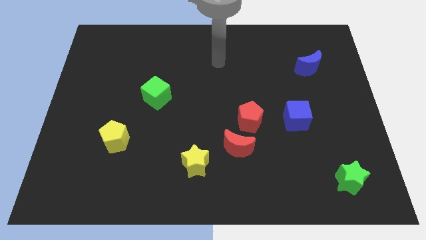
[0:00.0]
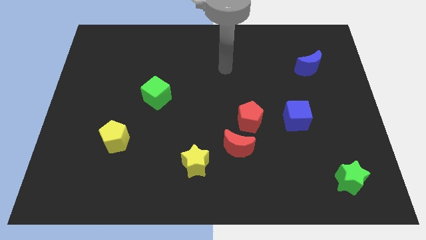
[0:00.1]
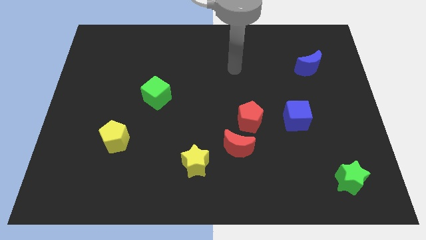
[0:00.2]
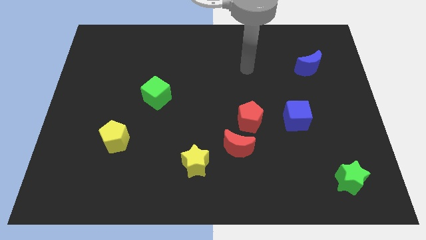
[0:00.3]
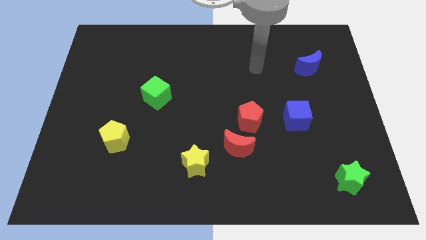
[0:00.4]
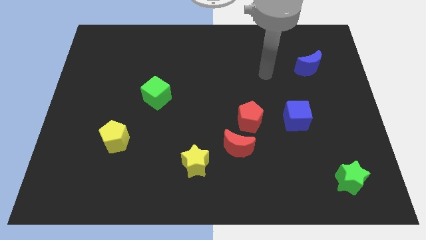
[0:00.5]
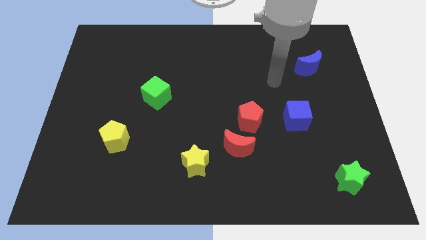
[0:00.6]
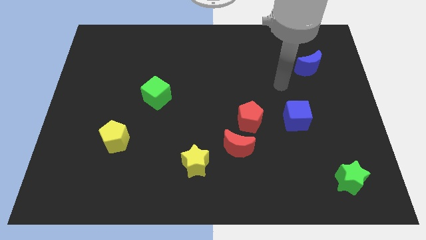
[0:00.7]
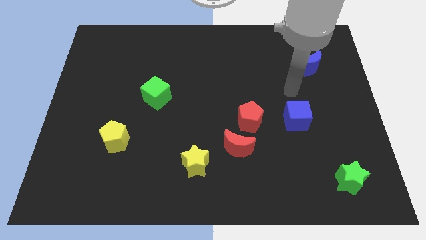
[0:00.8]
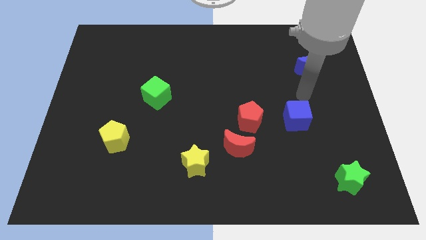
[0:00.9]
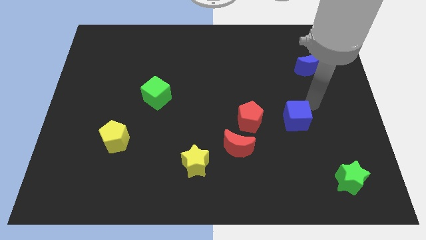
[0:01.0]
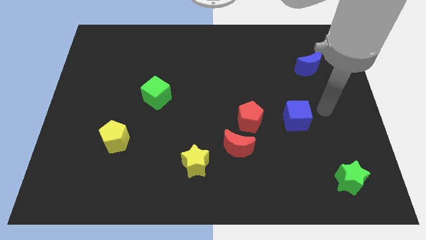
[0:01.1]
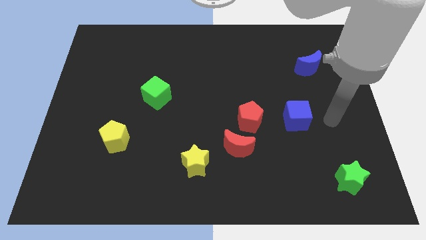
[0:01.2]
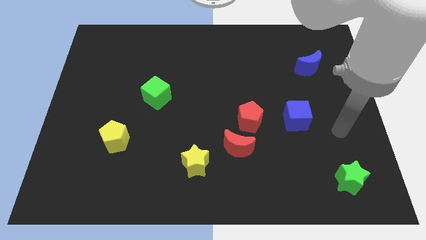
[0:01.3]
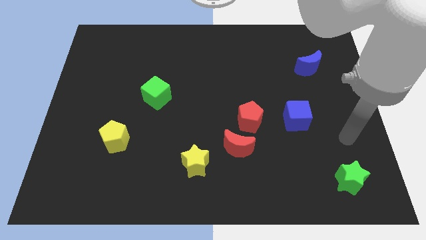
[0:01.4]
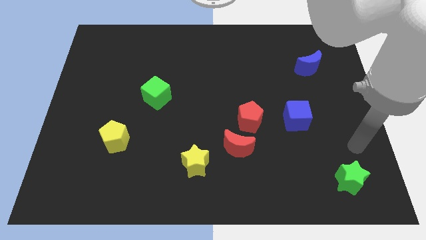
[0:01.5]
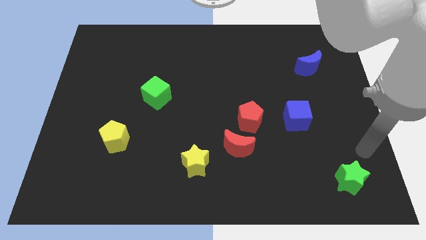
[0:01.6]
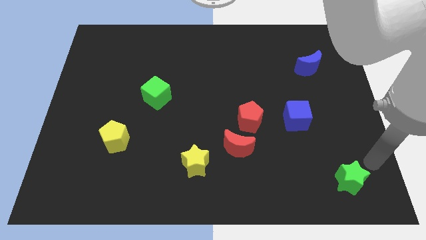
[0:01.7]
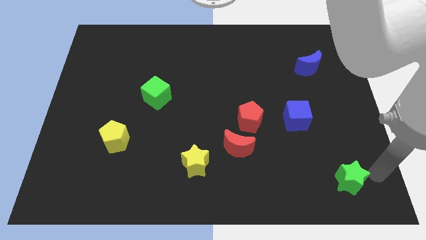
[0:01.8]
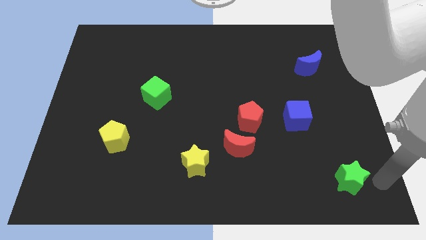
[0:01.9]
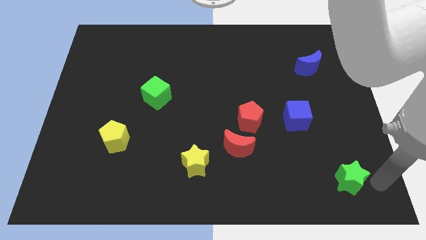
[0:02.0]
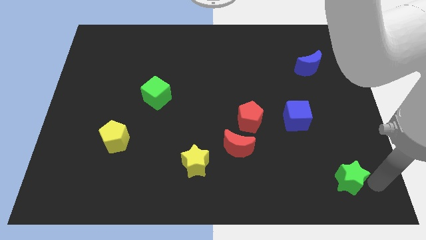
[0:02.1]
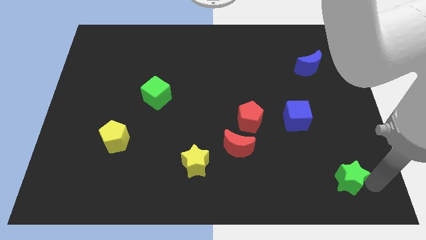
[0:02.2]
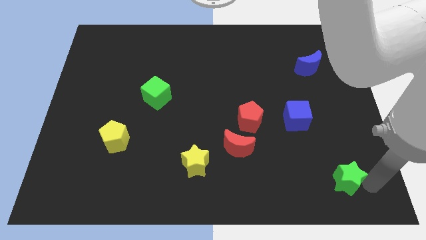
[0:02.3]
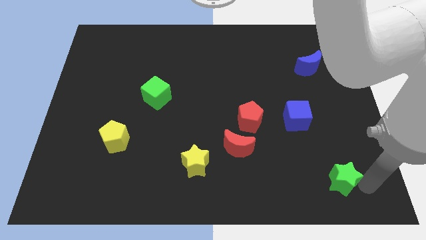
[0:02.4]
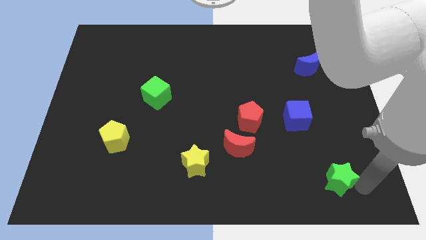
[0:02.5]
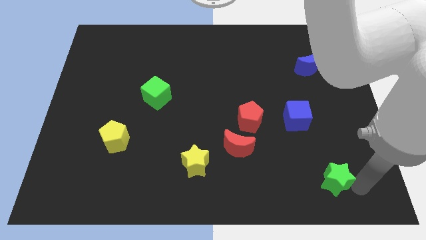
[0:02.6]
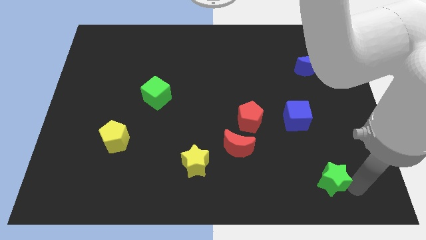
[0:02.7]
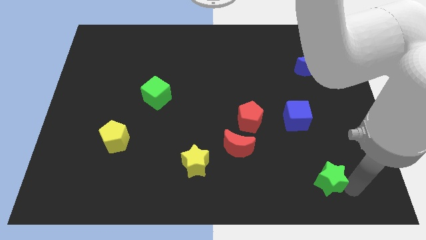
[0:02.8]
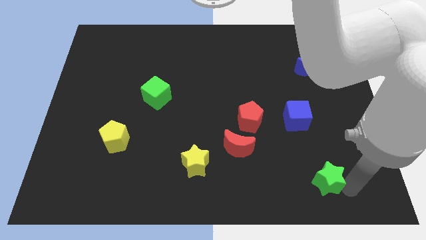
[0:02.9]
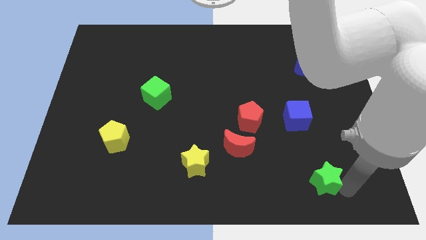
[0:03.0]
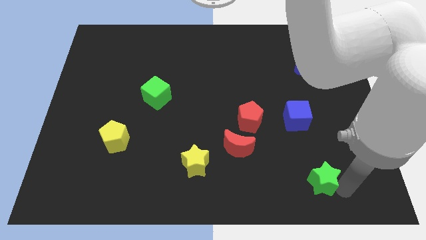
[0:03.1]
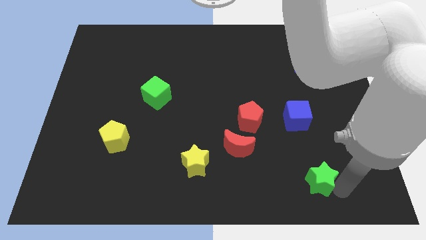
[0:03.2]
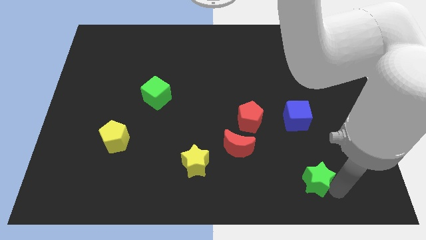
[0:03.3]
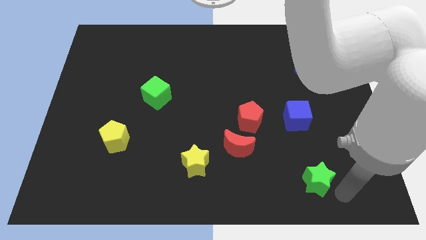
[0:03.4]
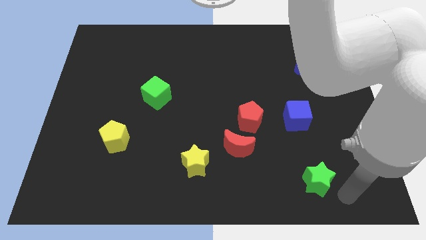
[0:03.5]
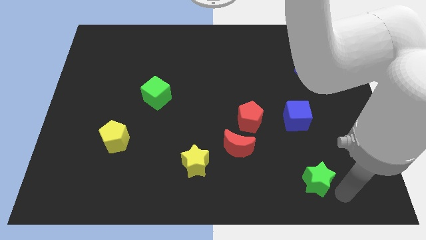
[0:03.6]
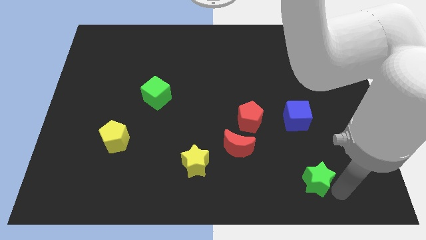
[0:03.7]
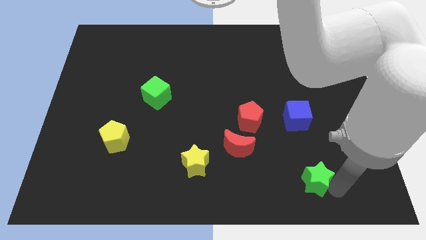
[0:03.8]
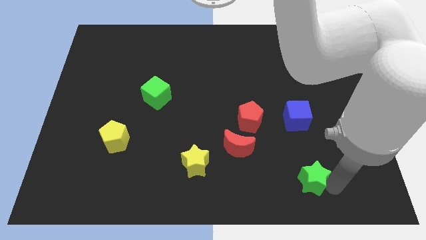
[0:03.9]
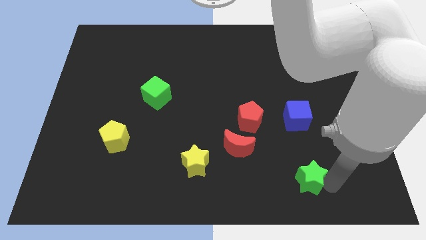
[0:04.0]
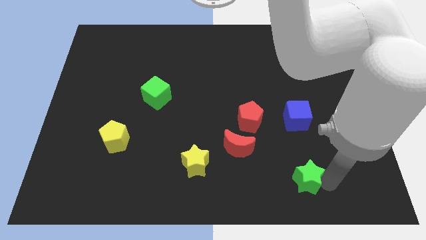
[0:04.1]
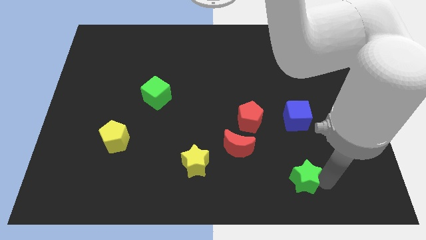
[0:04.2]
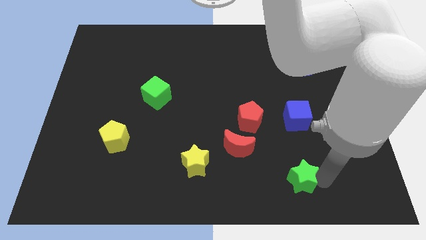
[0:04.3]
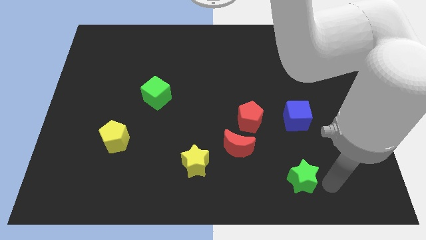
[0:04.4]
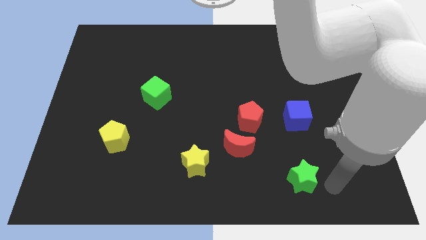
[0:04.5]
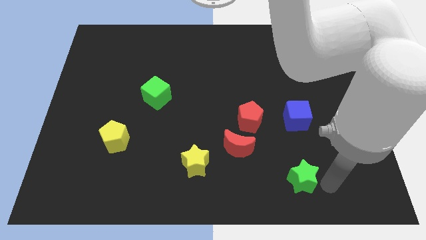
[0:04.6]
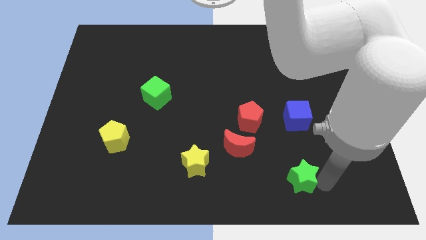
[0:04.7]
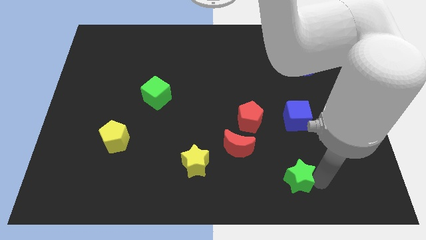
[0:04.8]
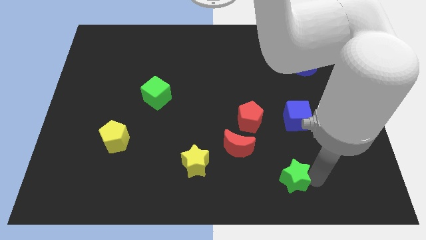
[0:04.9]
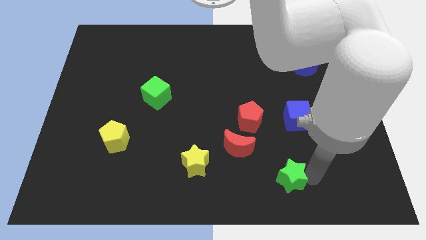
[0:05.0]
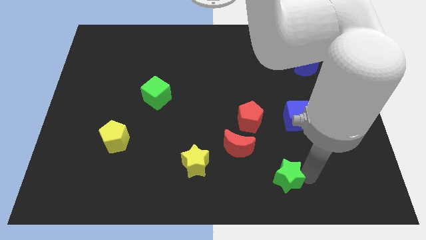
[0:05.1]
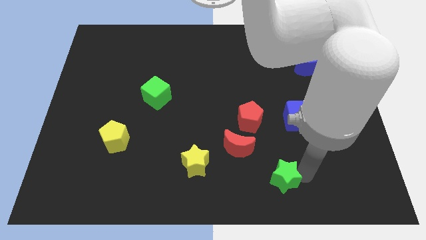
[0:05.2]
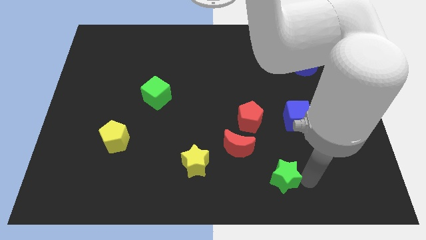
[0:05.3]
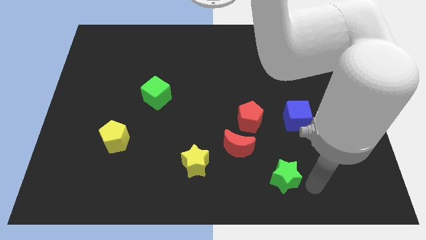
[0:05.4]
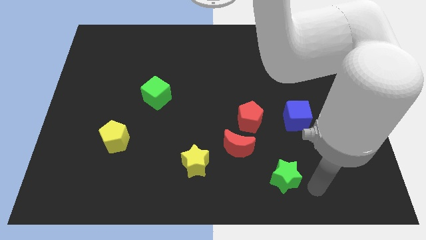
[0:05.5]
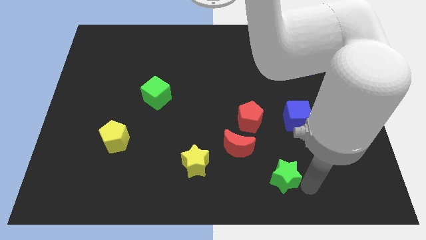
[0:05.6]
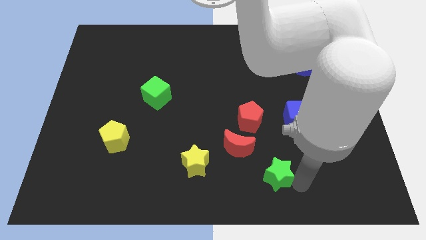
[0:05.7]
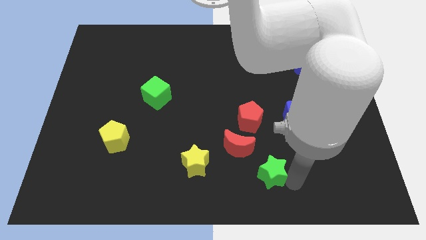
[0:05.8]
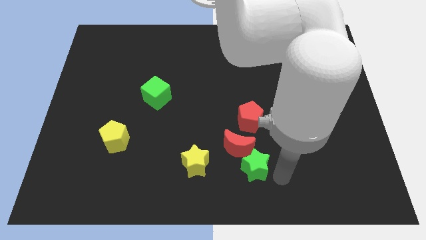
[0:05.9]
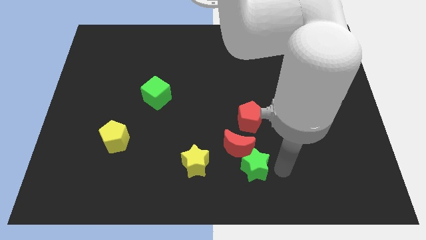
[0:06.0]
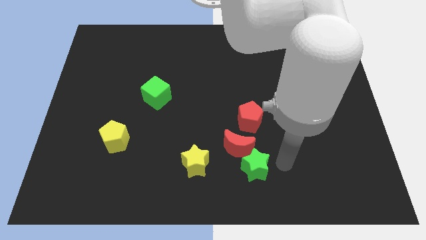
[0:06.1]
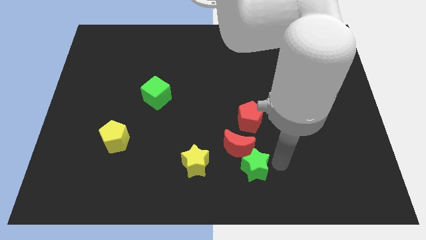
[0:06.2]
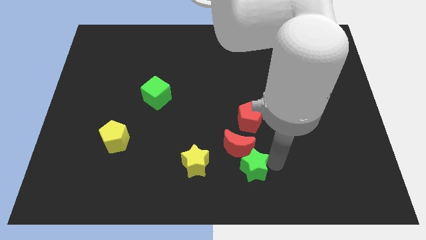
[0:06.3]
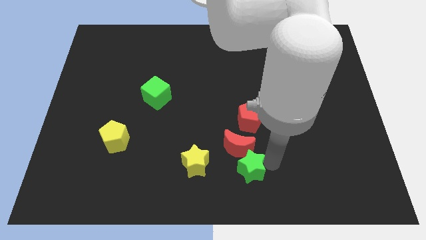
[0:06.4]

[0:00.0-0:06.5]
push the green star left

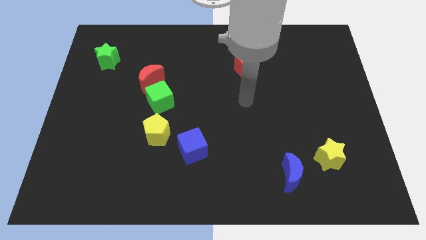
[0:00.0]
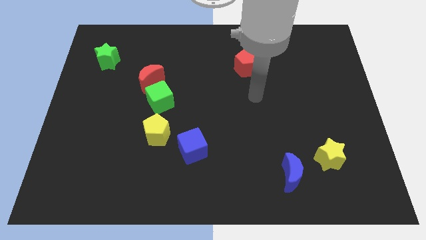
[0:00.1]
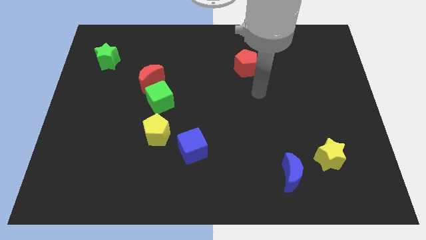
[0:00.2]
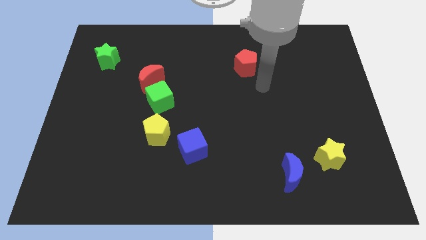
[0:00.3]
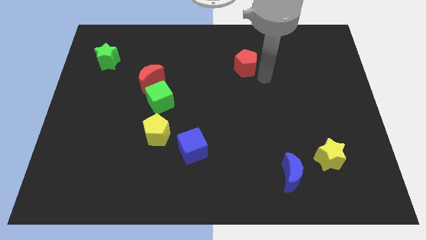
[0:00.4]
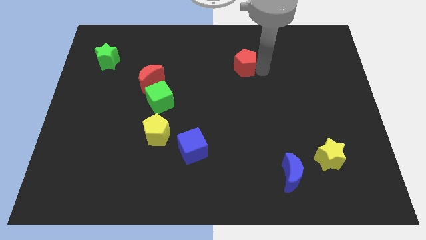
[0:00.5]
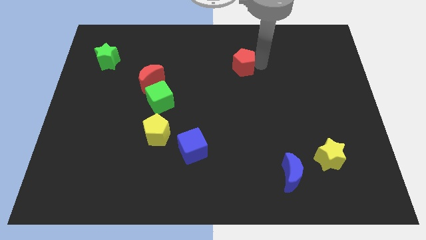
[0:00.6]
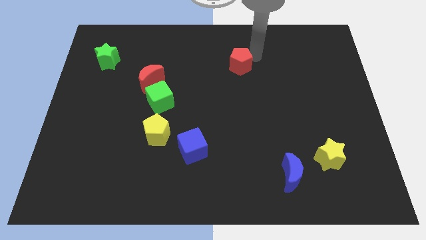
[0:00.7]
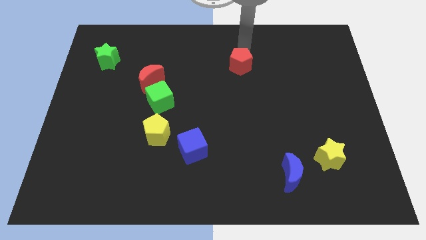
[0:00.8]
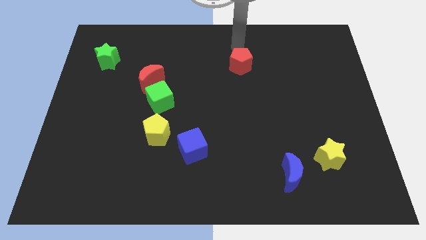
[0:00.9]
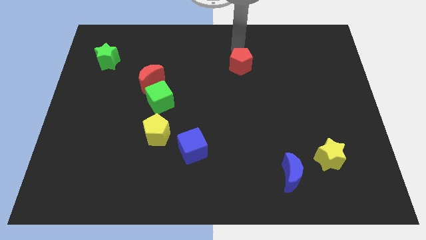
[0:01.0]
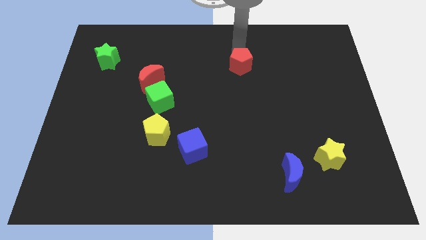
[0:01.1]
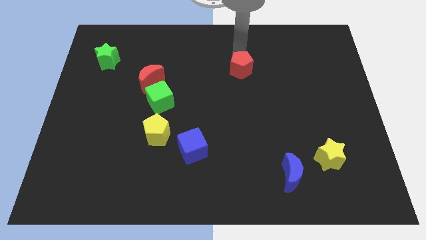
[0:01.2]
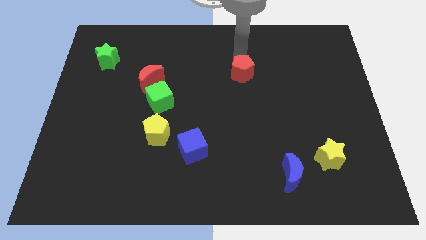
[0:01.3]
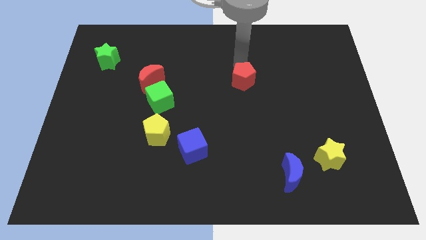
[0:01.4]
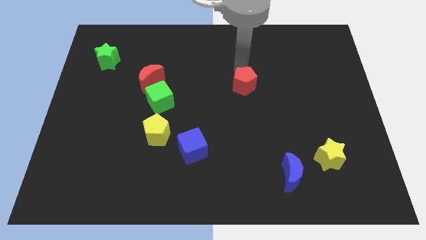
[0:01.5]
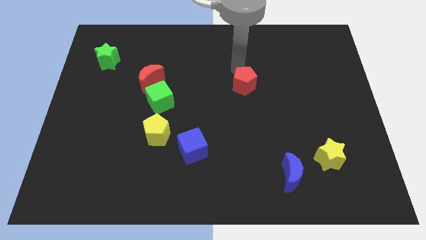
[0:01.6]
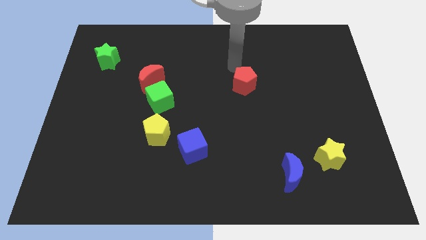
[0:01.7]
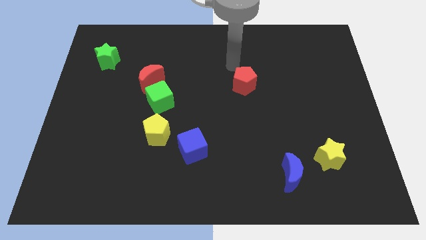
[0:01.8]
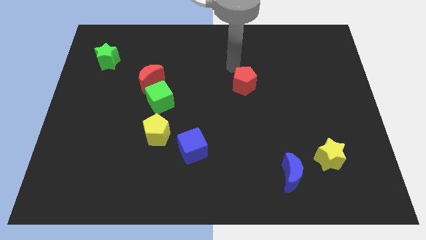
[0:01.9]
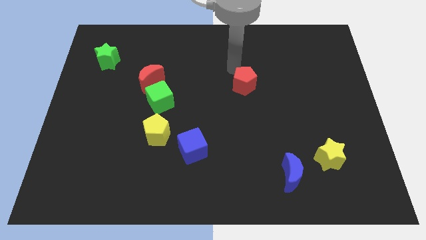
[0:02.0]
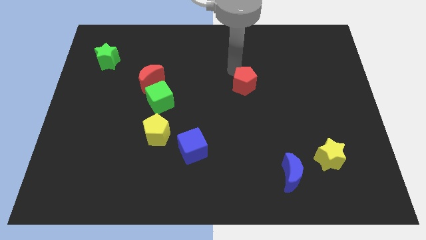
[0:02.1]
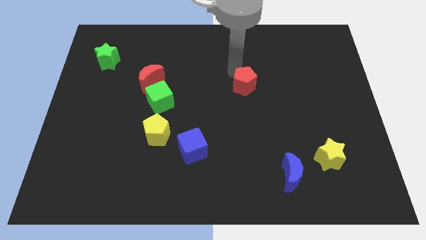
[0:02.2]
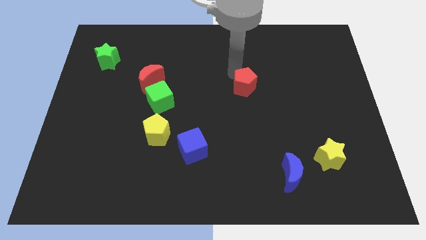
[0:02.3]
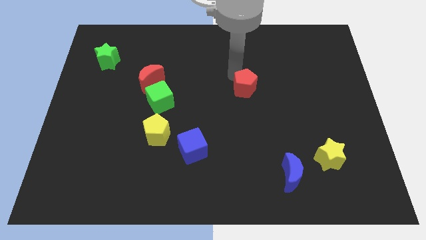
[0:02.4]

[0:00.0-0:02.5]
move the red pentagon down somewhat
